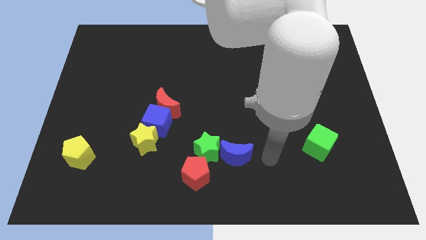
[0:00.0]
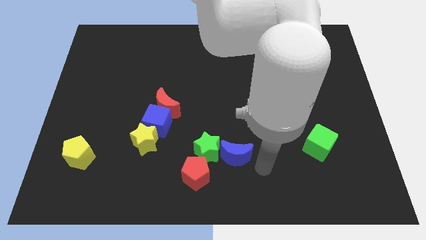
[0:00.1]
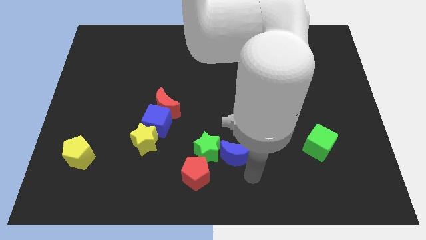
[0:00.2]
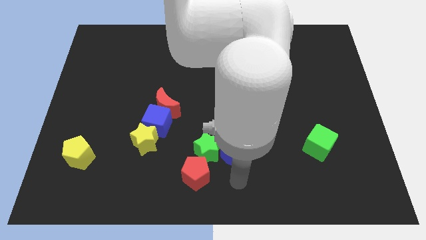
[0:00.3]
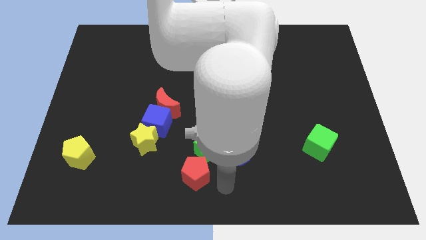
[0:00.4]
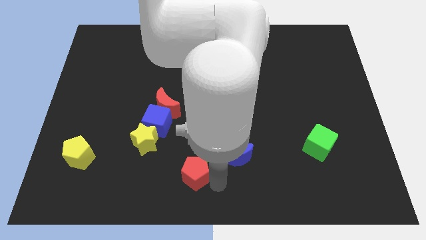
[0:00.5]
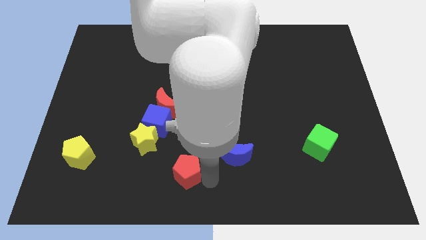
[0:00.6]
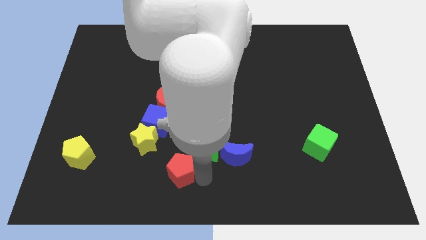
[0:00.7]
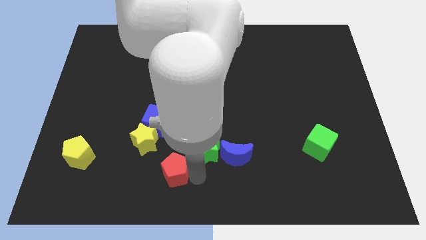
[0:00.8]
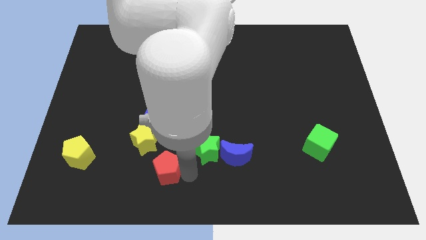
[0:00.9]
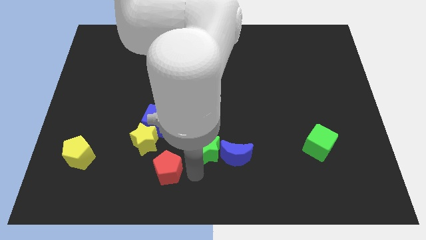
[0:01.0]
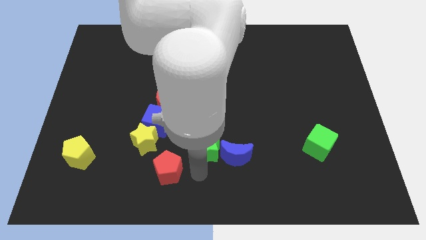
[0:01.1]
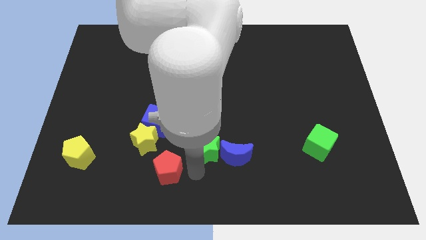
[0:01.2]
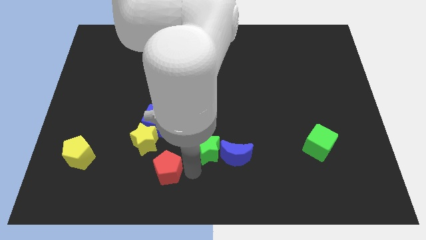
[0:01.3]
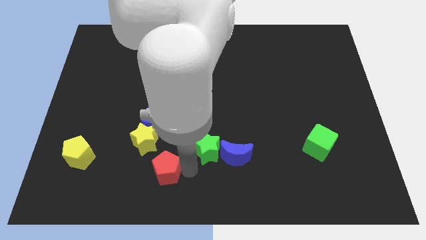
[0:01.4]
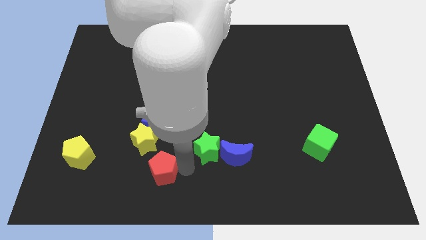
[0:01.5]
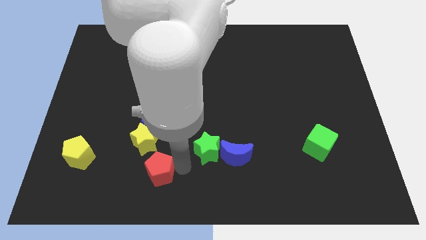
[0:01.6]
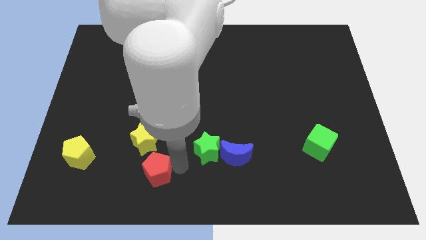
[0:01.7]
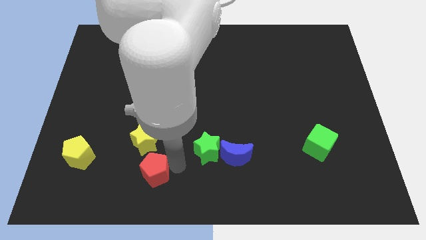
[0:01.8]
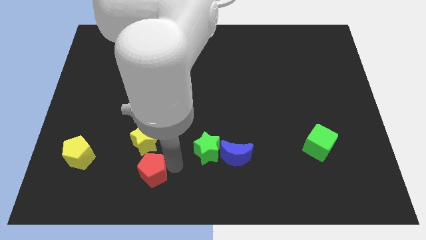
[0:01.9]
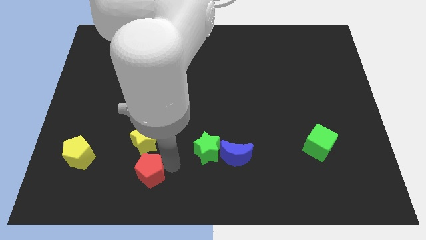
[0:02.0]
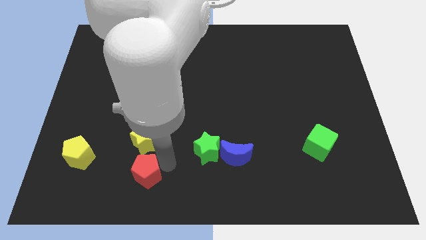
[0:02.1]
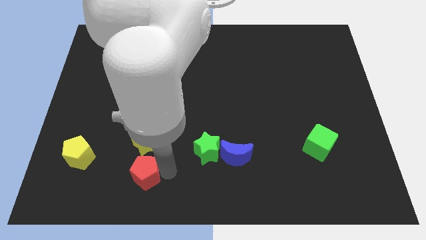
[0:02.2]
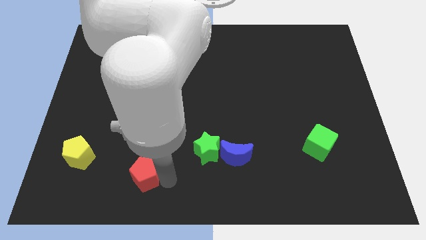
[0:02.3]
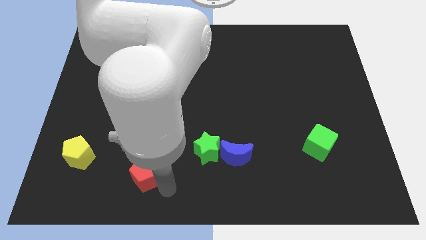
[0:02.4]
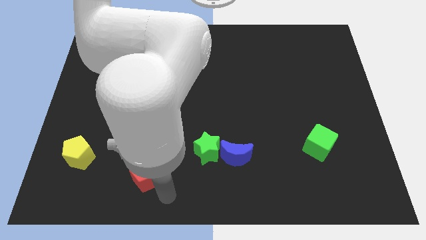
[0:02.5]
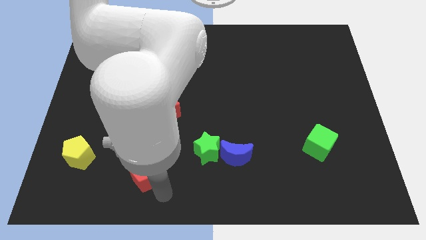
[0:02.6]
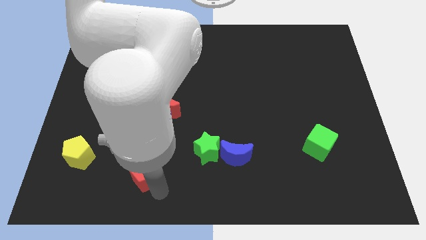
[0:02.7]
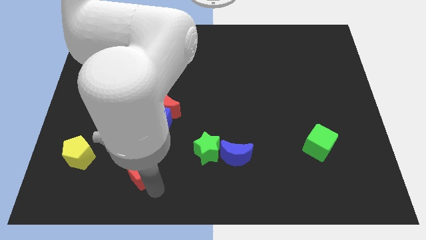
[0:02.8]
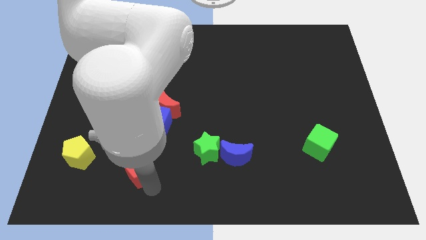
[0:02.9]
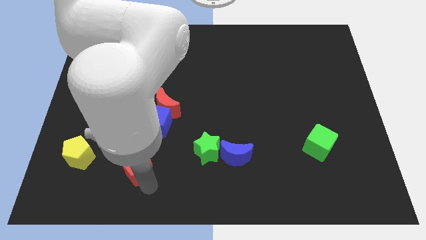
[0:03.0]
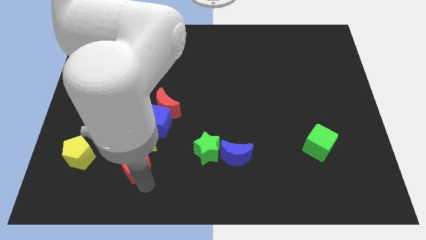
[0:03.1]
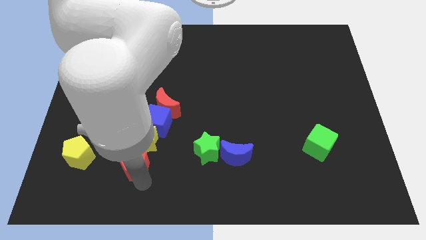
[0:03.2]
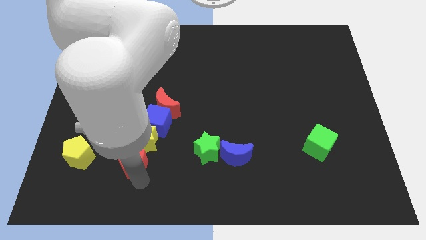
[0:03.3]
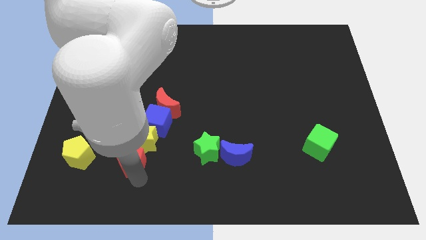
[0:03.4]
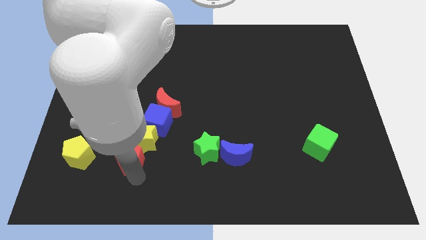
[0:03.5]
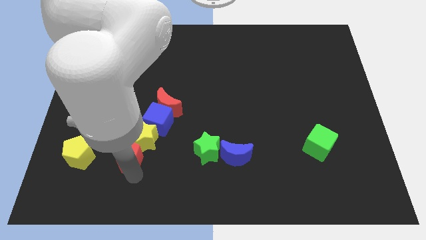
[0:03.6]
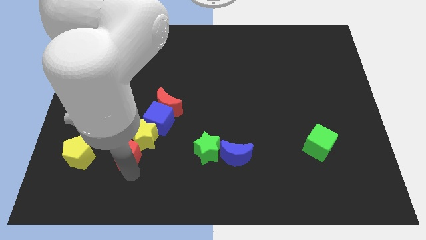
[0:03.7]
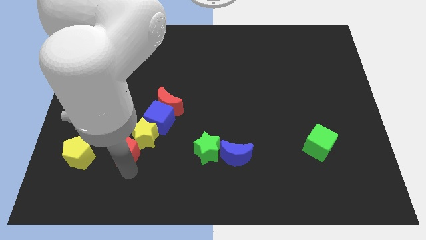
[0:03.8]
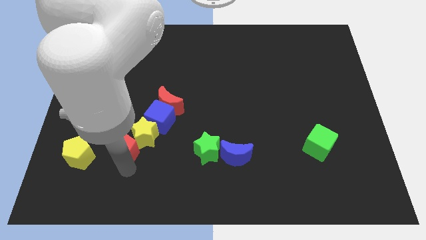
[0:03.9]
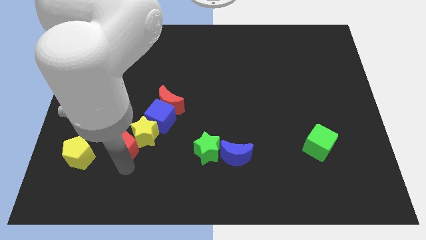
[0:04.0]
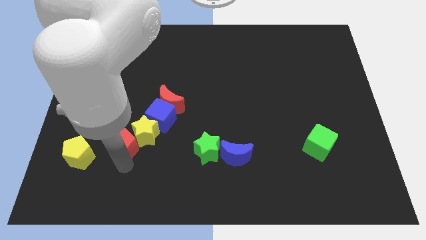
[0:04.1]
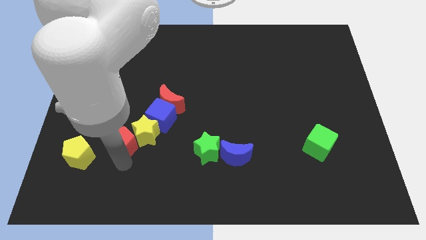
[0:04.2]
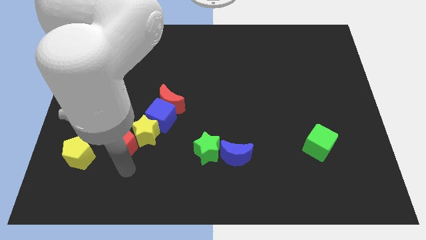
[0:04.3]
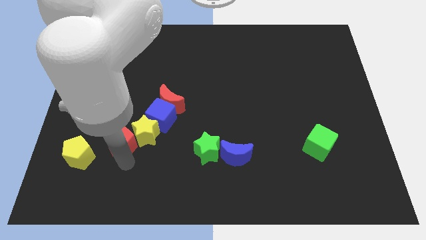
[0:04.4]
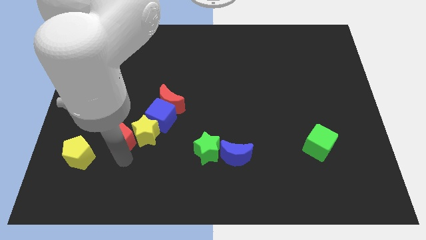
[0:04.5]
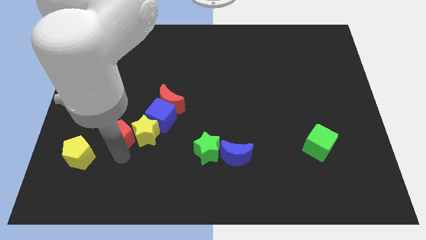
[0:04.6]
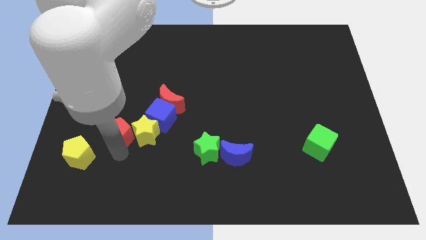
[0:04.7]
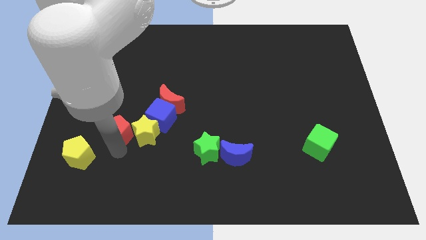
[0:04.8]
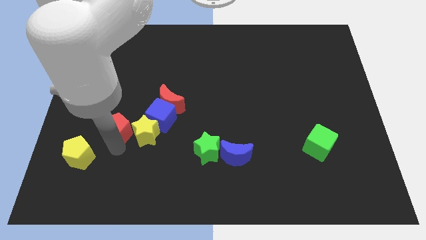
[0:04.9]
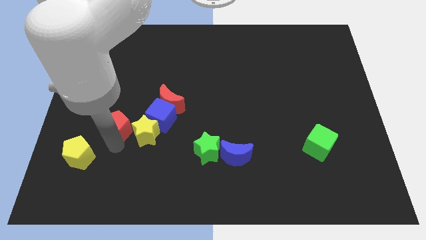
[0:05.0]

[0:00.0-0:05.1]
move the red pentagon upwards and then left

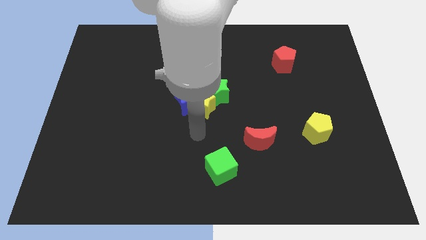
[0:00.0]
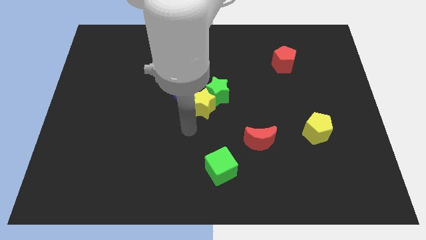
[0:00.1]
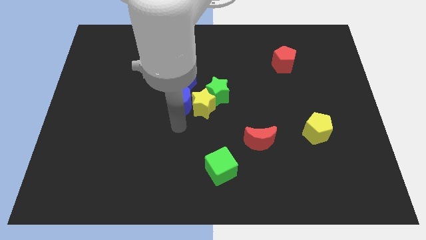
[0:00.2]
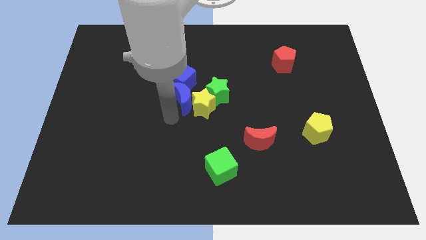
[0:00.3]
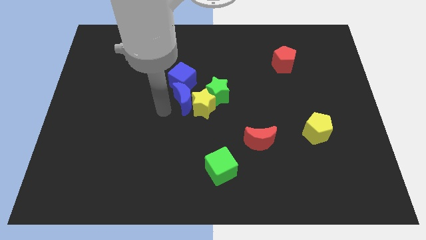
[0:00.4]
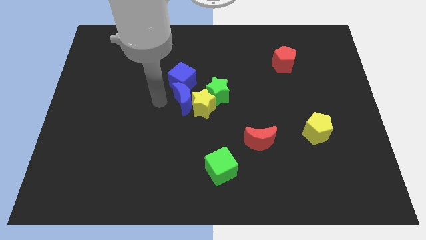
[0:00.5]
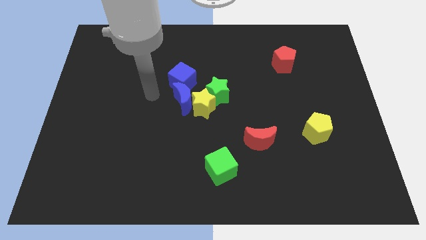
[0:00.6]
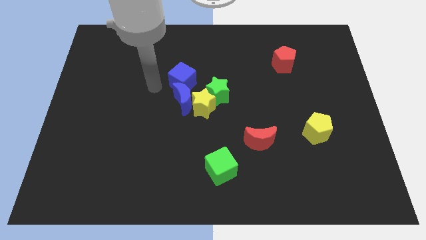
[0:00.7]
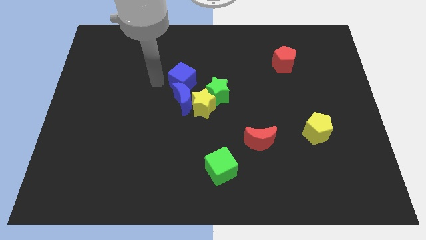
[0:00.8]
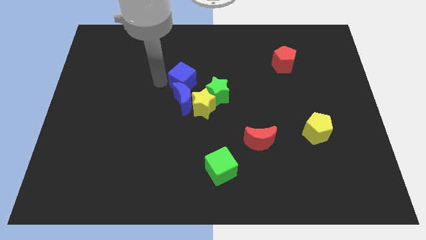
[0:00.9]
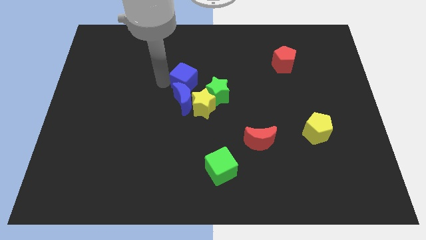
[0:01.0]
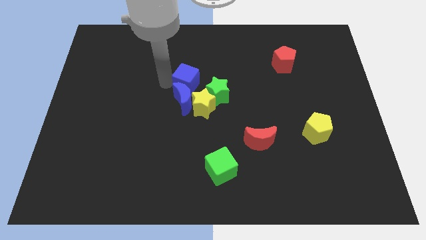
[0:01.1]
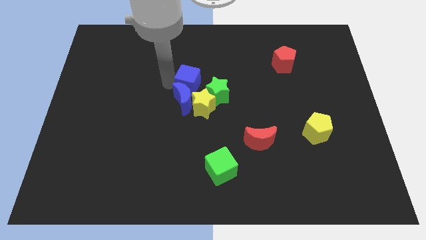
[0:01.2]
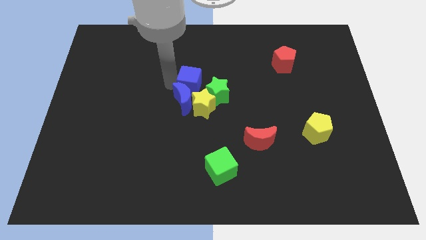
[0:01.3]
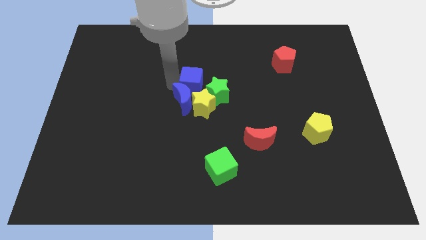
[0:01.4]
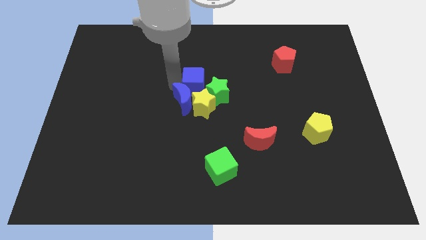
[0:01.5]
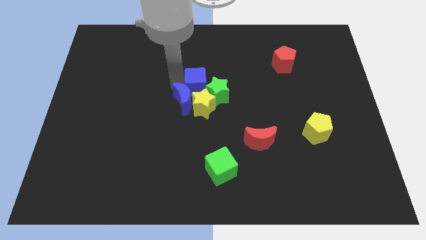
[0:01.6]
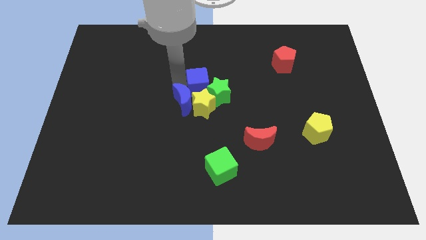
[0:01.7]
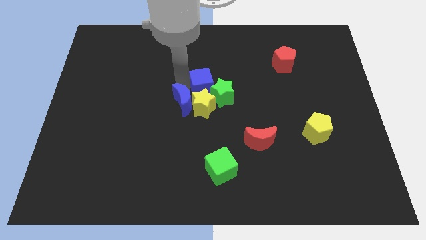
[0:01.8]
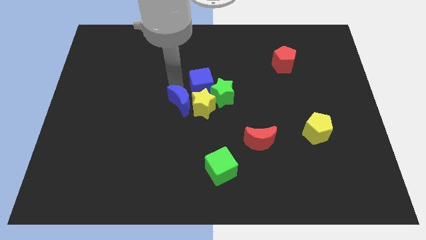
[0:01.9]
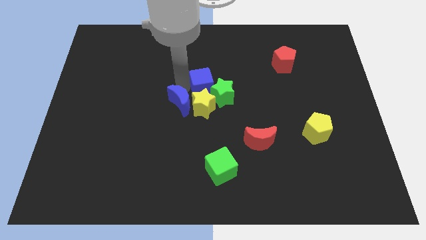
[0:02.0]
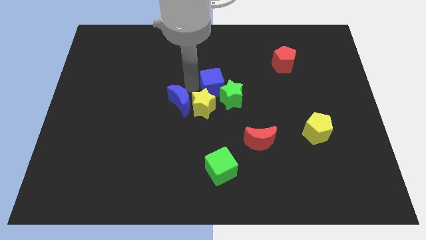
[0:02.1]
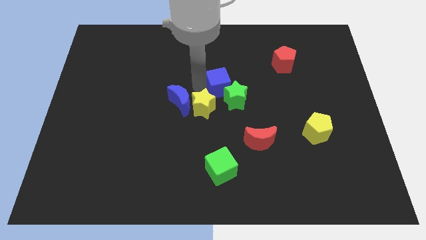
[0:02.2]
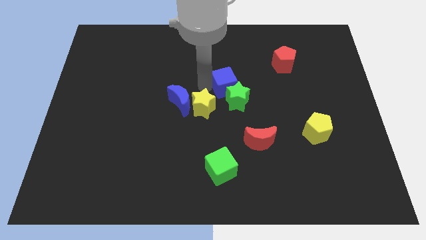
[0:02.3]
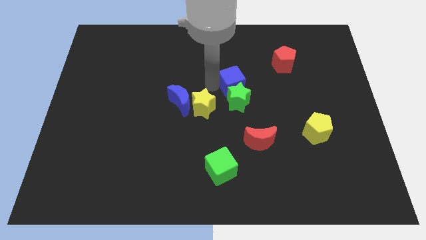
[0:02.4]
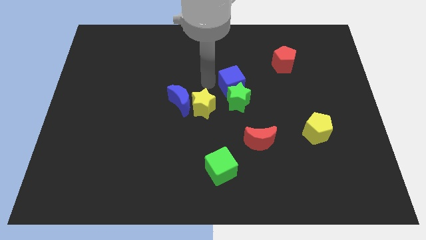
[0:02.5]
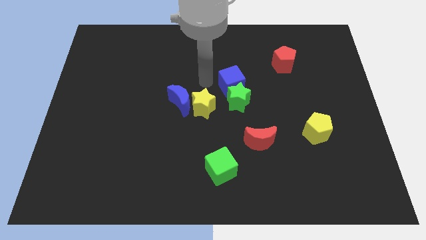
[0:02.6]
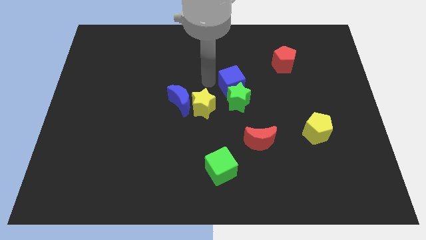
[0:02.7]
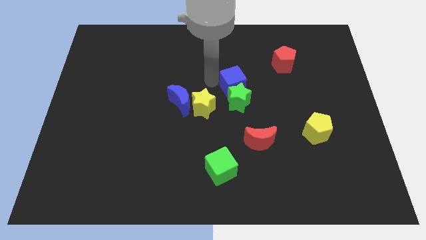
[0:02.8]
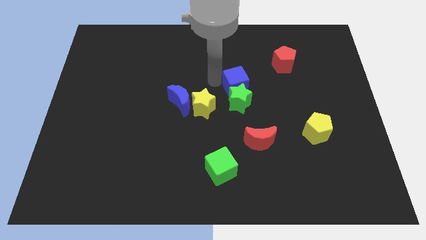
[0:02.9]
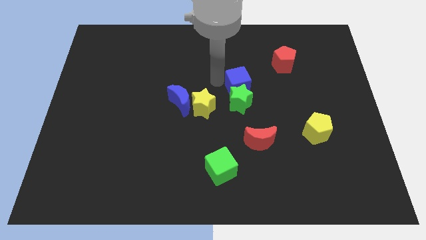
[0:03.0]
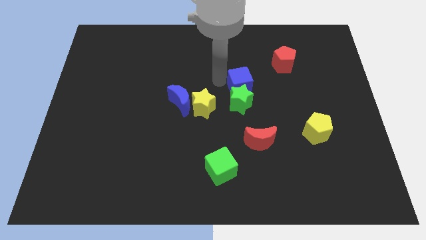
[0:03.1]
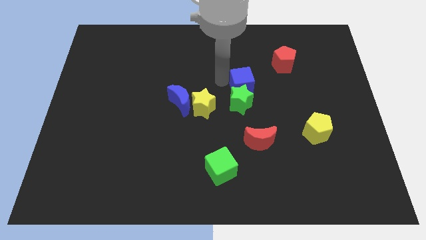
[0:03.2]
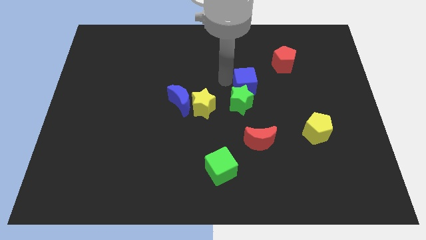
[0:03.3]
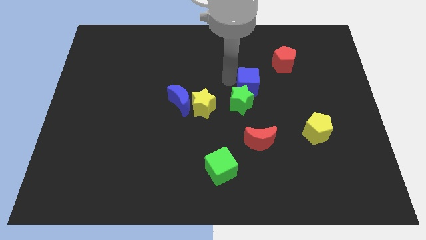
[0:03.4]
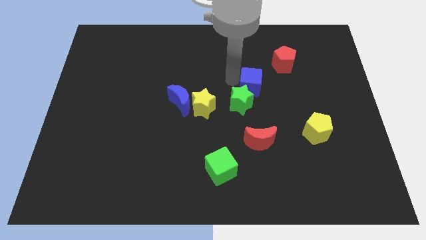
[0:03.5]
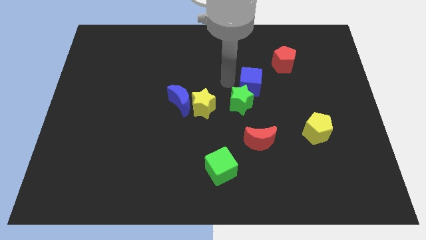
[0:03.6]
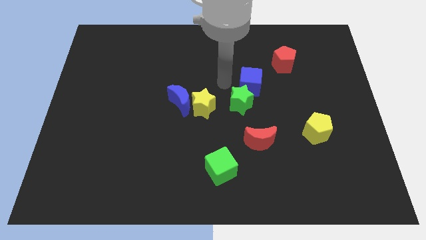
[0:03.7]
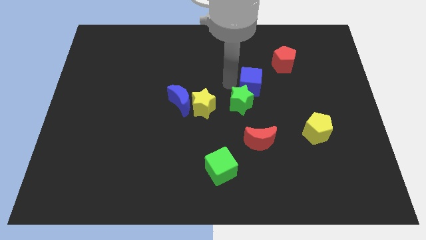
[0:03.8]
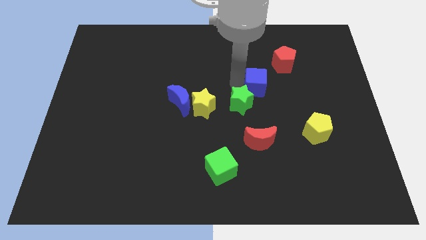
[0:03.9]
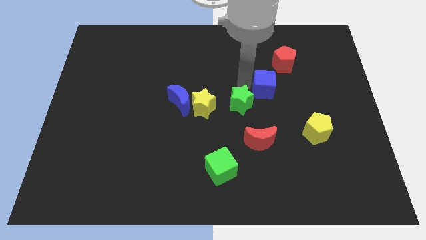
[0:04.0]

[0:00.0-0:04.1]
push the blue cube to the right
